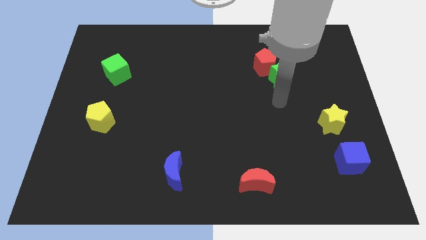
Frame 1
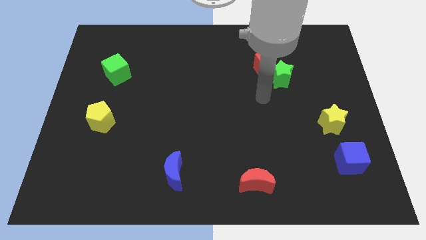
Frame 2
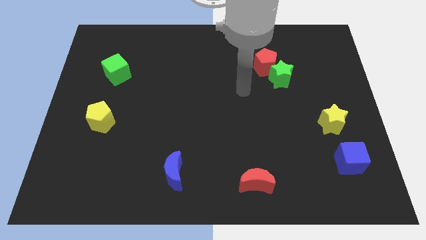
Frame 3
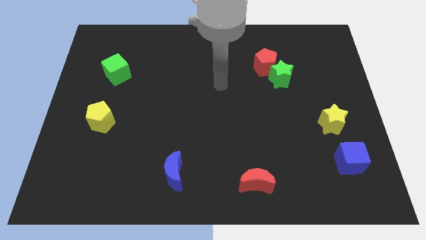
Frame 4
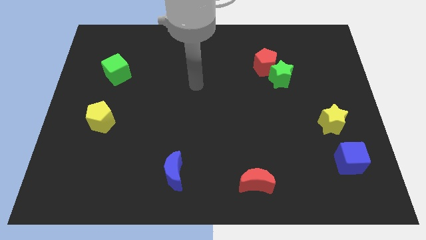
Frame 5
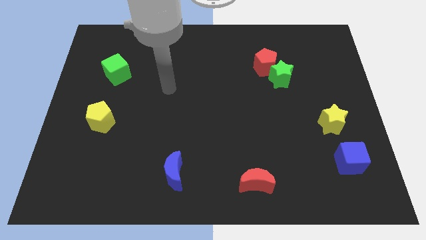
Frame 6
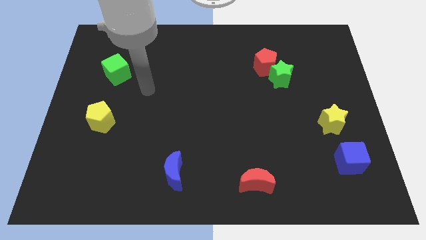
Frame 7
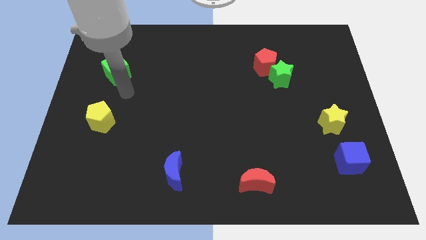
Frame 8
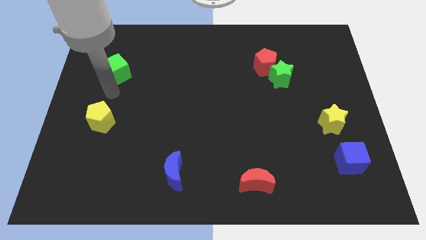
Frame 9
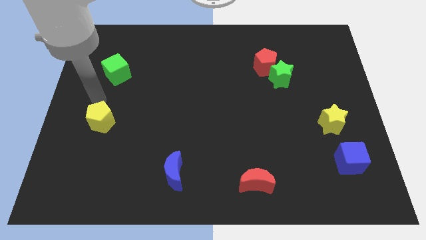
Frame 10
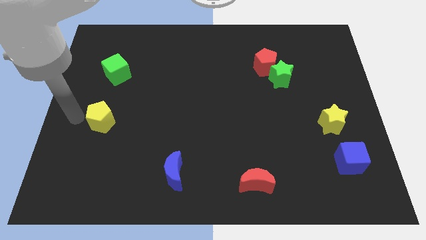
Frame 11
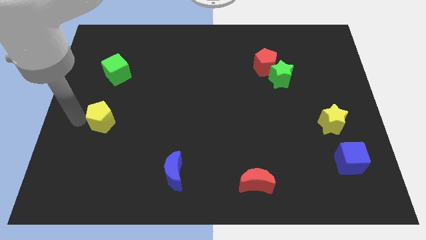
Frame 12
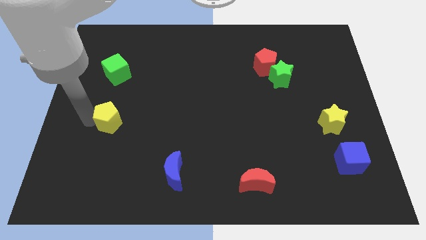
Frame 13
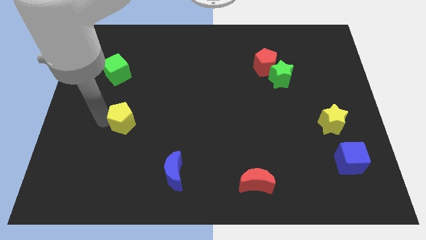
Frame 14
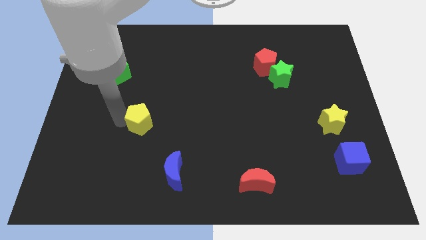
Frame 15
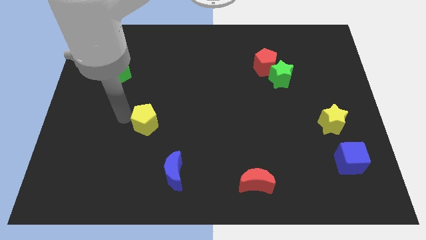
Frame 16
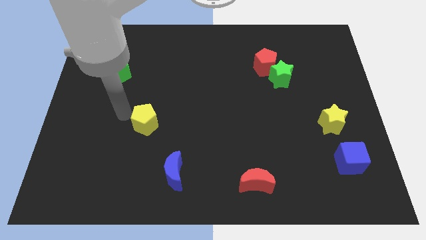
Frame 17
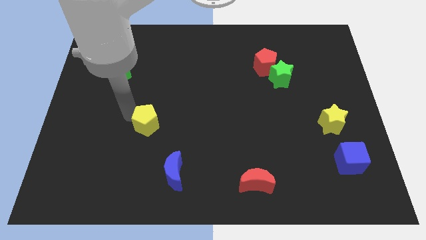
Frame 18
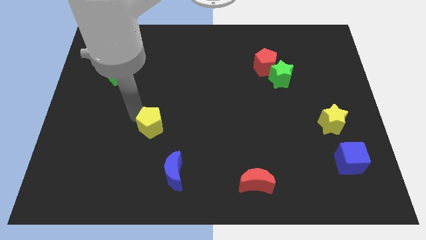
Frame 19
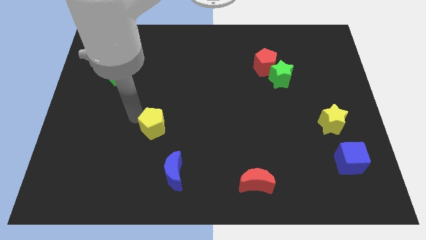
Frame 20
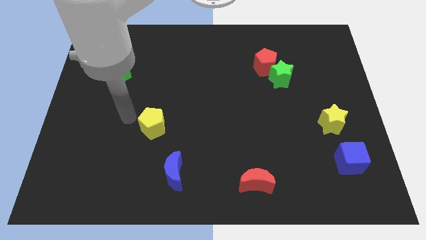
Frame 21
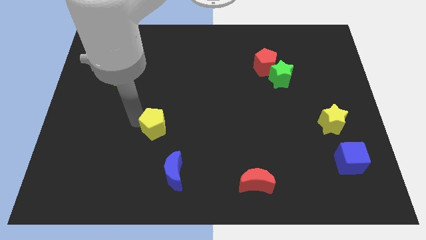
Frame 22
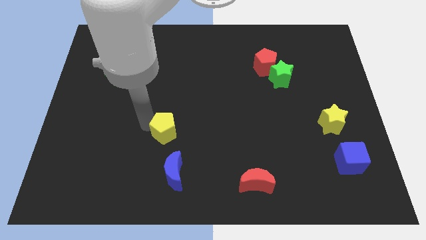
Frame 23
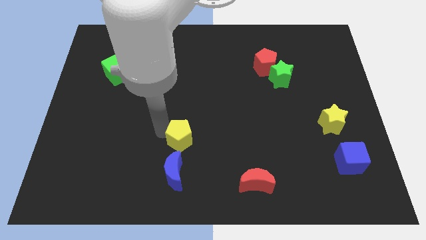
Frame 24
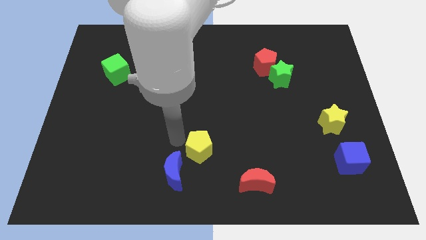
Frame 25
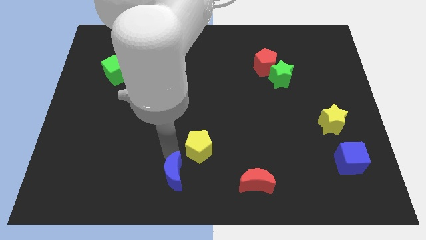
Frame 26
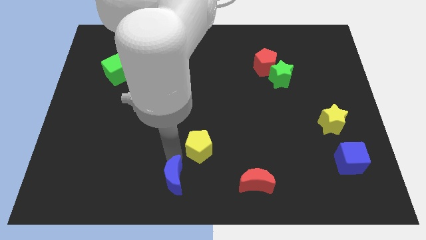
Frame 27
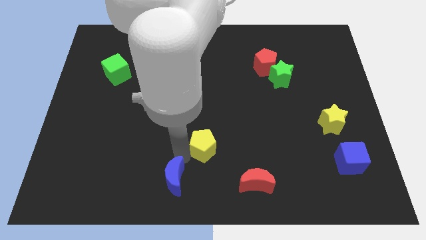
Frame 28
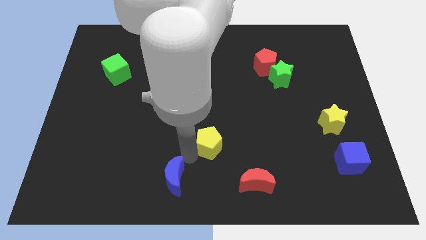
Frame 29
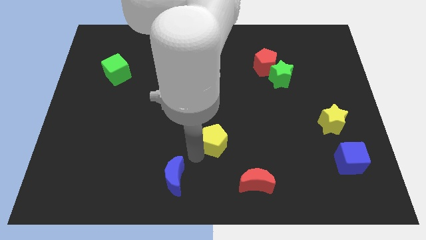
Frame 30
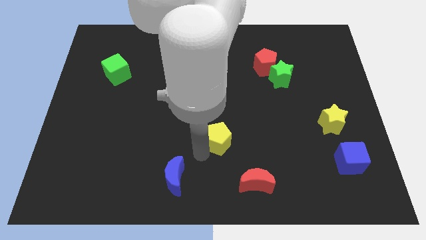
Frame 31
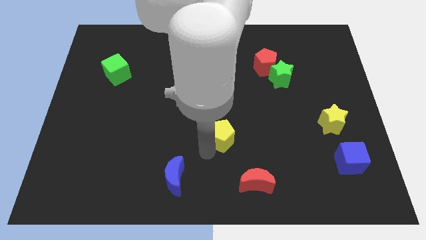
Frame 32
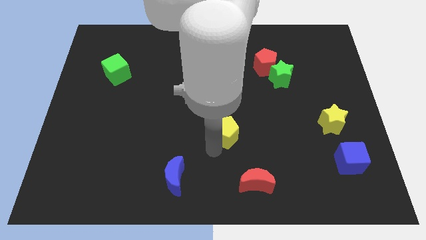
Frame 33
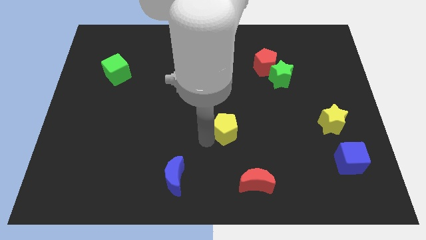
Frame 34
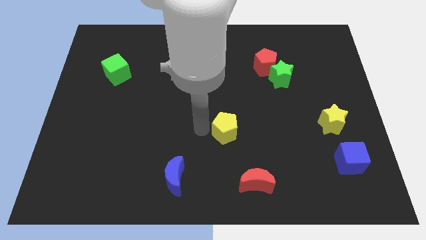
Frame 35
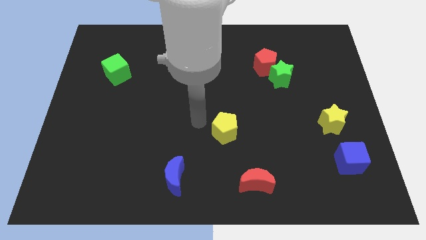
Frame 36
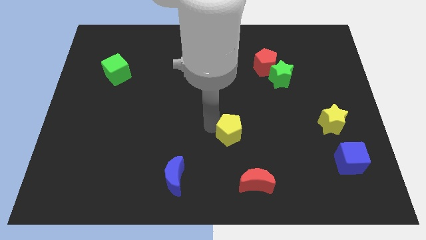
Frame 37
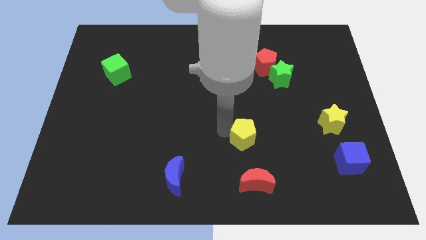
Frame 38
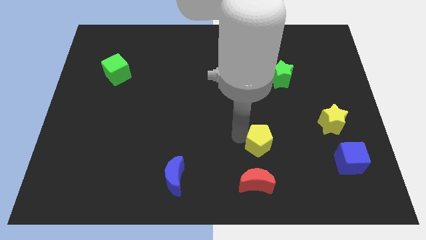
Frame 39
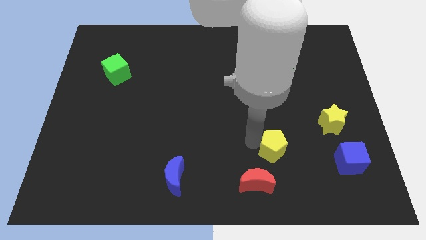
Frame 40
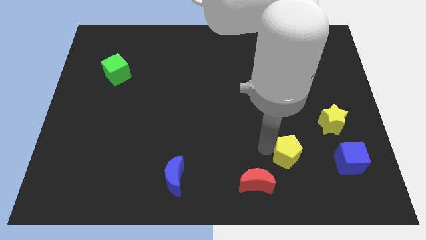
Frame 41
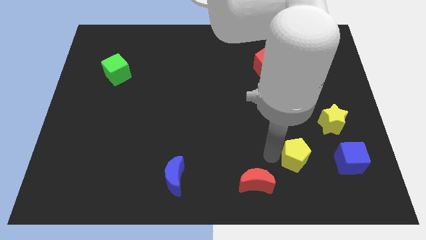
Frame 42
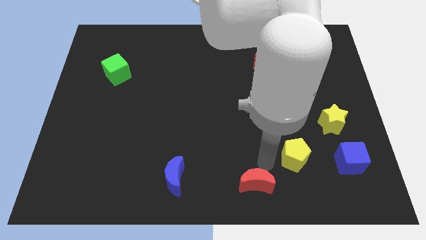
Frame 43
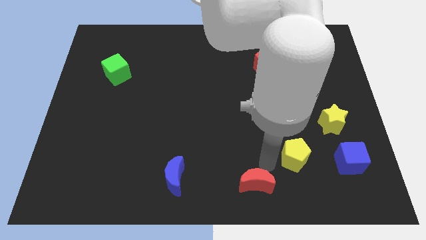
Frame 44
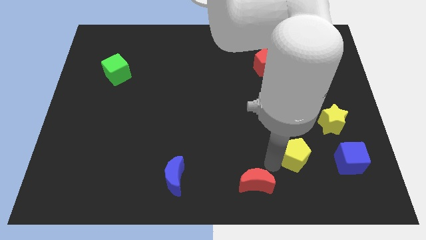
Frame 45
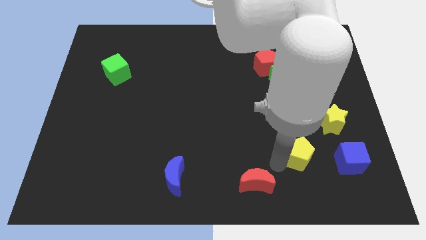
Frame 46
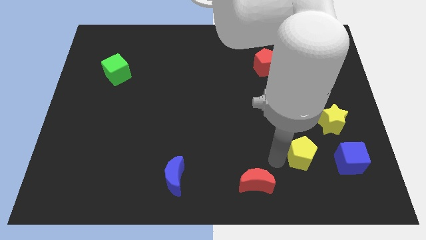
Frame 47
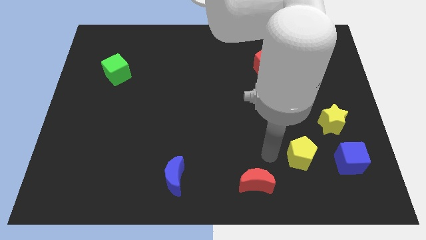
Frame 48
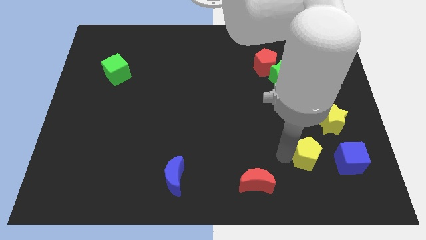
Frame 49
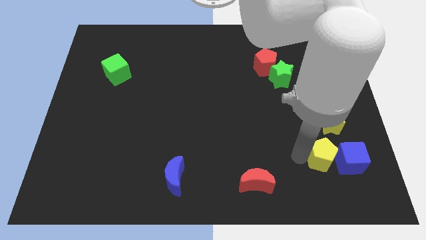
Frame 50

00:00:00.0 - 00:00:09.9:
push the yellow pentagon towards the blue cube

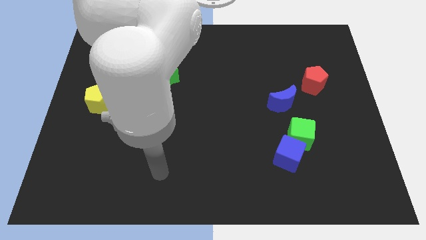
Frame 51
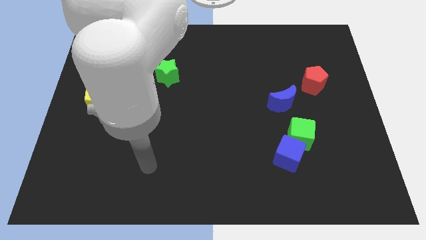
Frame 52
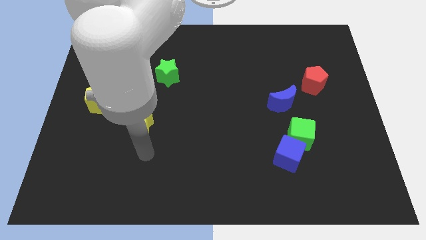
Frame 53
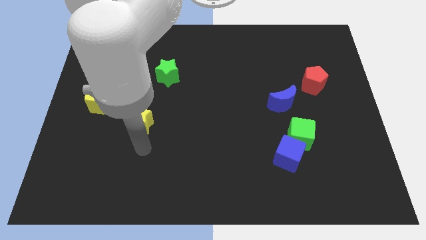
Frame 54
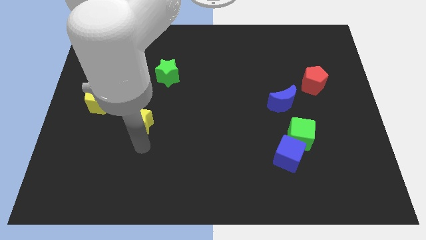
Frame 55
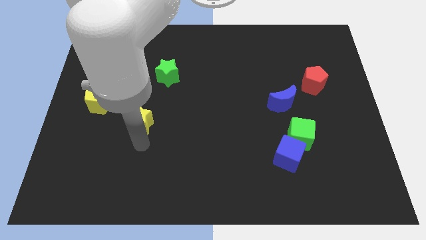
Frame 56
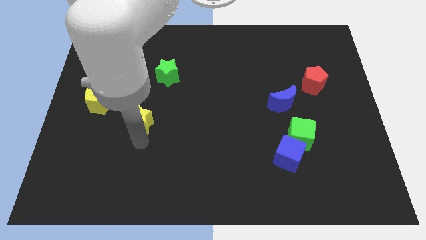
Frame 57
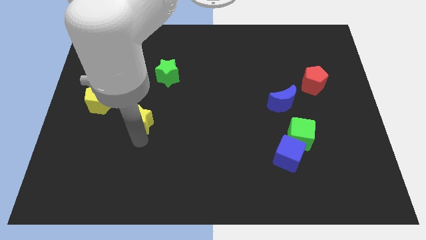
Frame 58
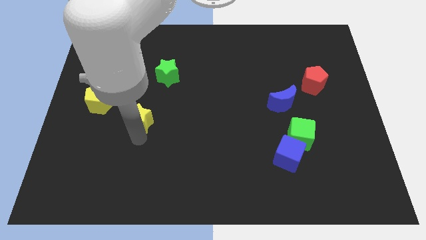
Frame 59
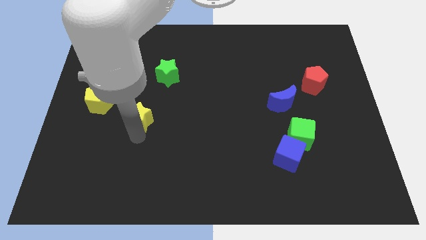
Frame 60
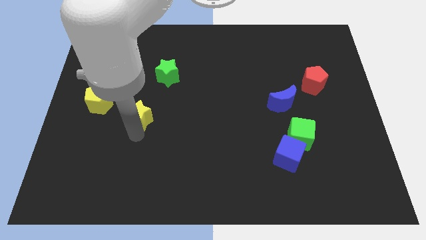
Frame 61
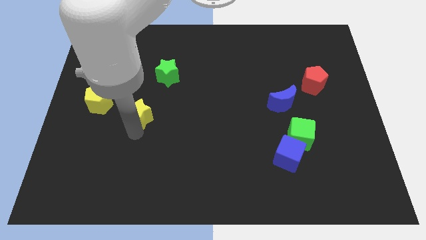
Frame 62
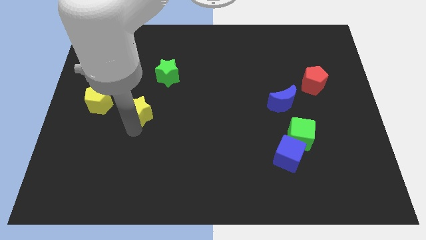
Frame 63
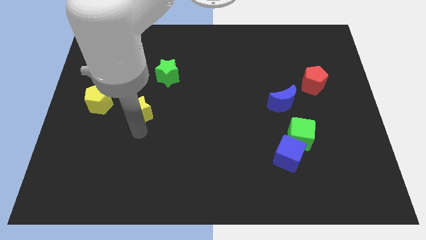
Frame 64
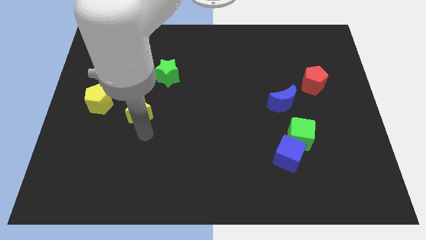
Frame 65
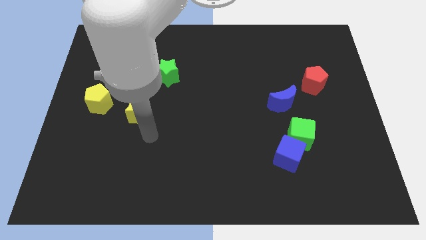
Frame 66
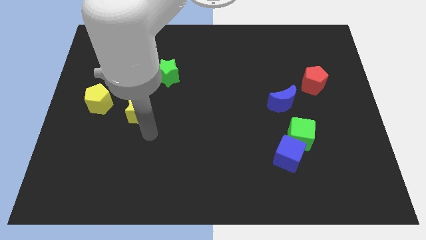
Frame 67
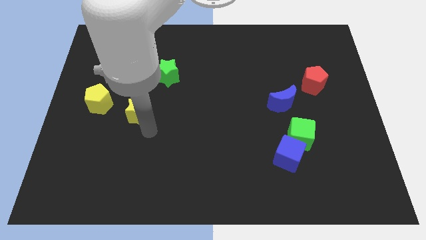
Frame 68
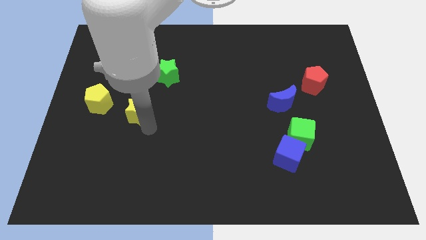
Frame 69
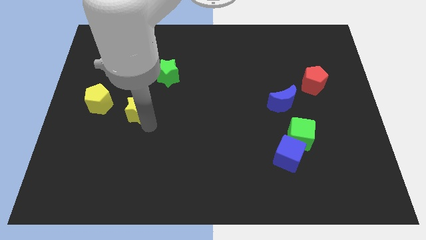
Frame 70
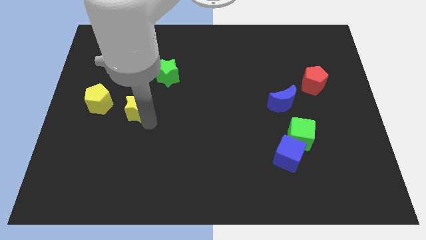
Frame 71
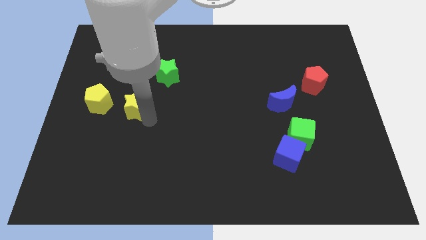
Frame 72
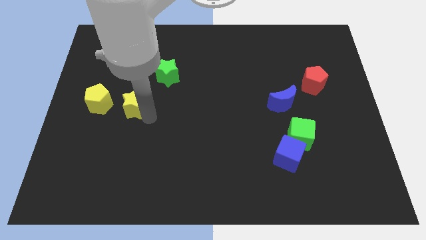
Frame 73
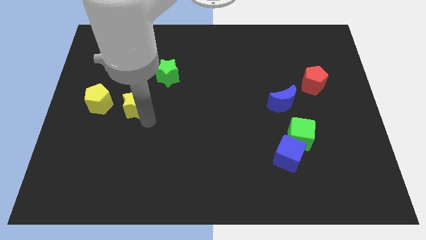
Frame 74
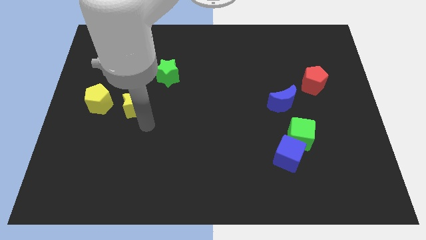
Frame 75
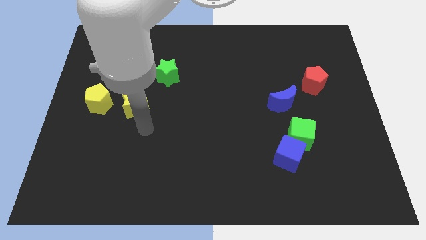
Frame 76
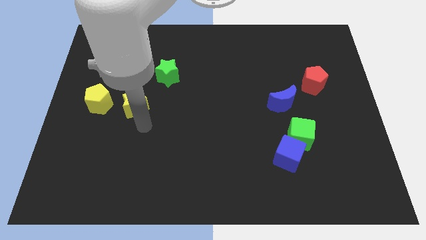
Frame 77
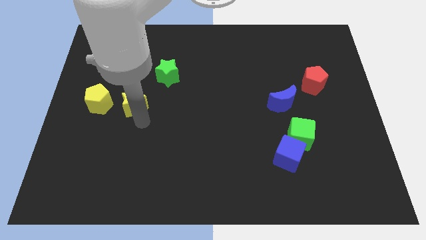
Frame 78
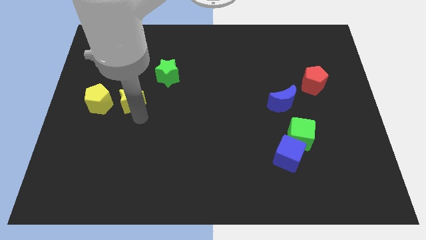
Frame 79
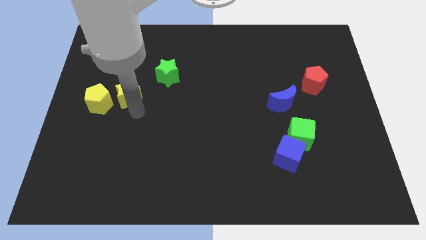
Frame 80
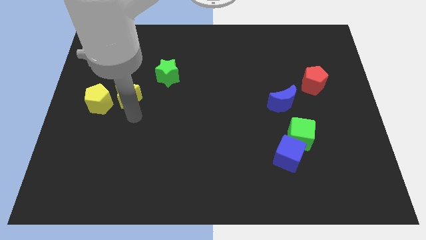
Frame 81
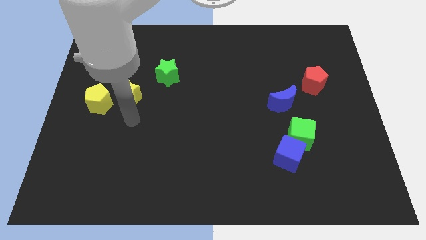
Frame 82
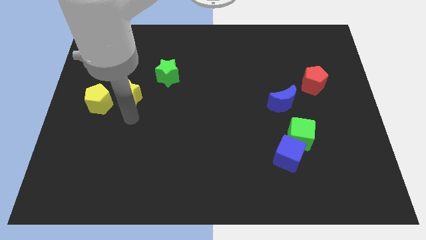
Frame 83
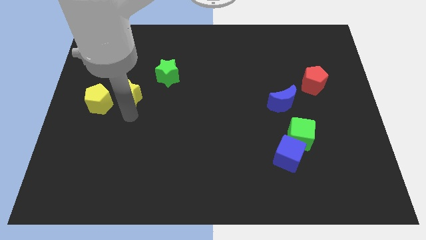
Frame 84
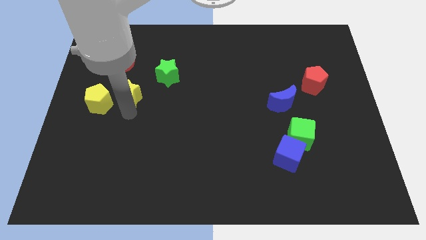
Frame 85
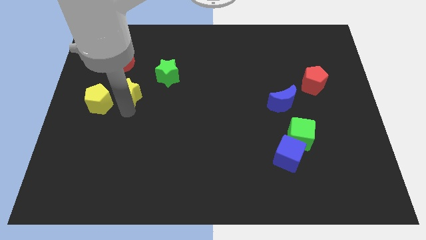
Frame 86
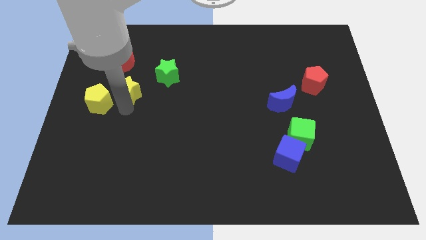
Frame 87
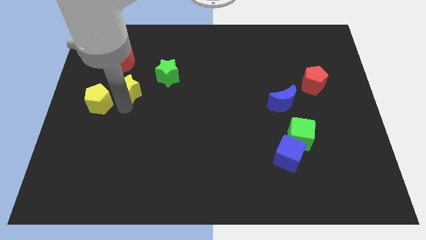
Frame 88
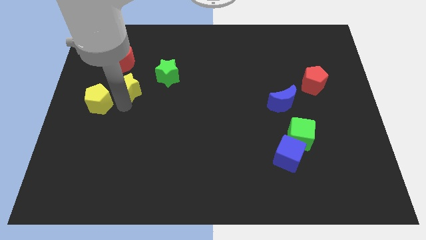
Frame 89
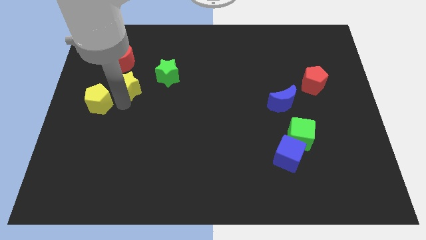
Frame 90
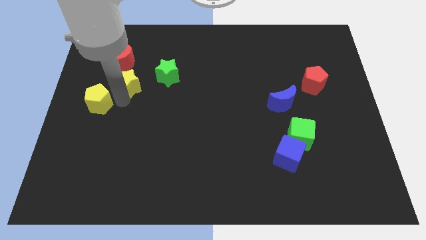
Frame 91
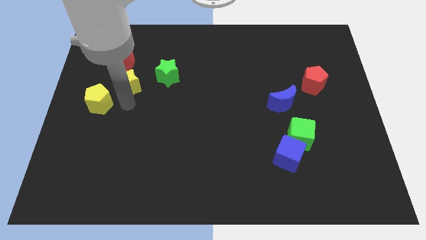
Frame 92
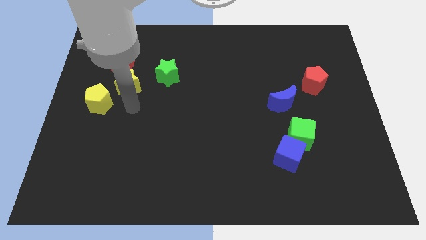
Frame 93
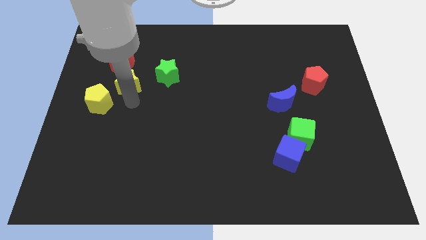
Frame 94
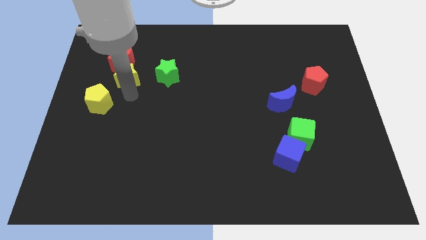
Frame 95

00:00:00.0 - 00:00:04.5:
push the yellow star next to the red moon
